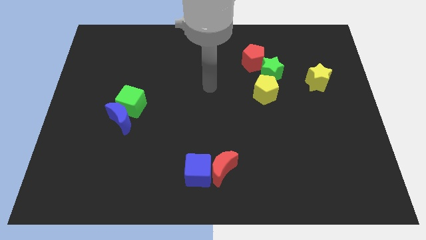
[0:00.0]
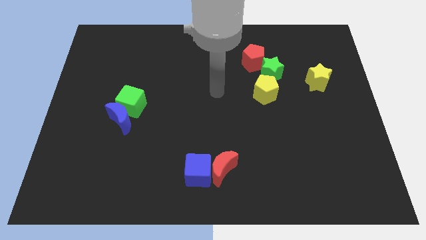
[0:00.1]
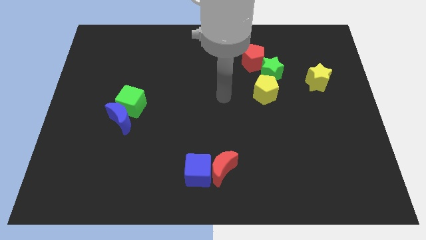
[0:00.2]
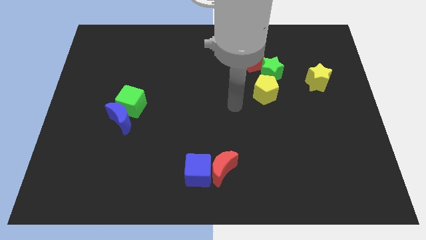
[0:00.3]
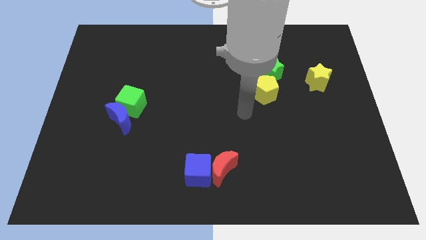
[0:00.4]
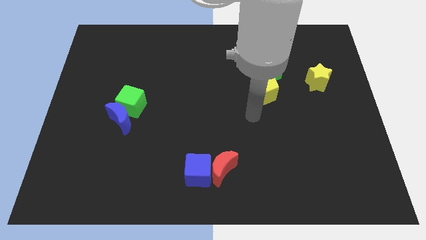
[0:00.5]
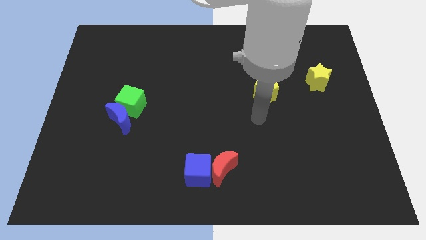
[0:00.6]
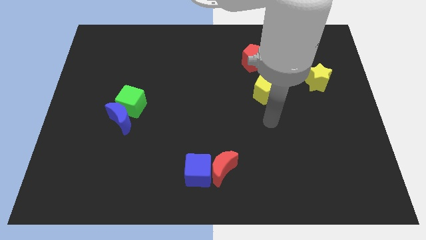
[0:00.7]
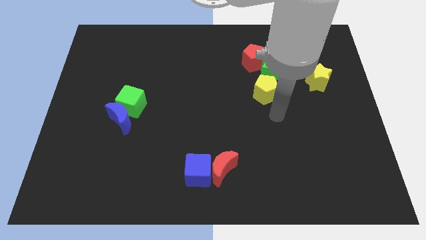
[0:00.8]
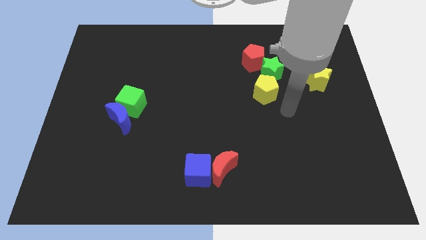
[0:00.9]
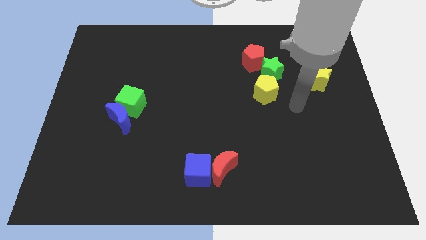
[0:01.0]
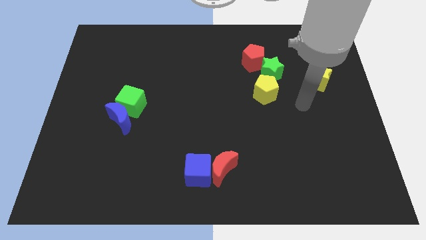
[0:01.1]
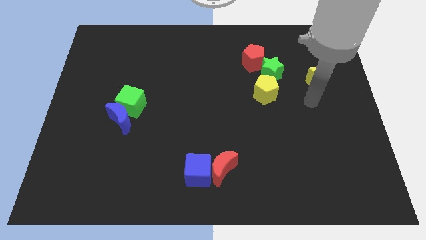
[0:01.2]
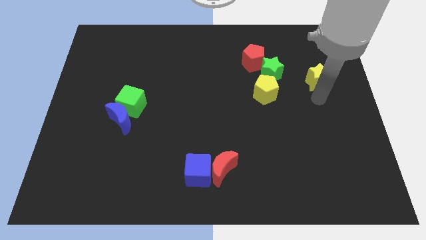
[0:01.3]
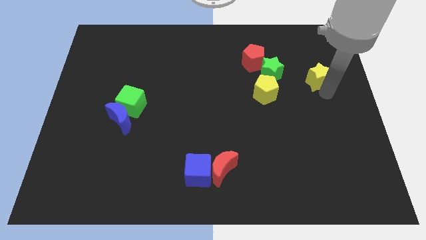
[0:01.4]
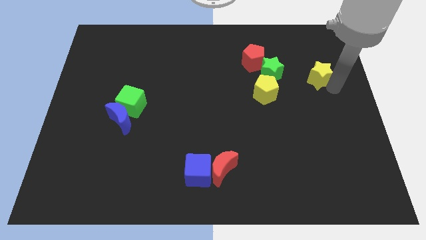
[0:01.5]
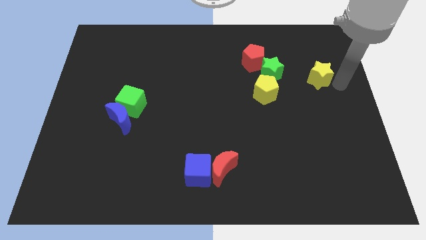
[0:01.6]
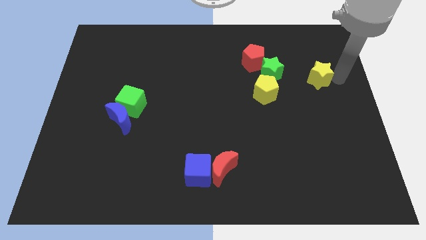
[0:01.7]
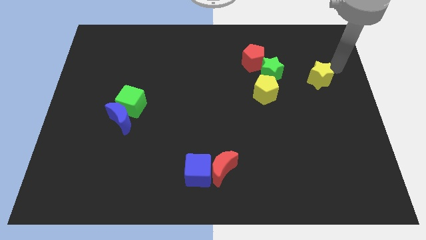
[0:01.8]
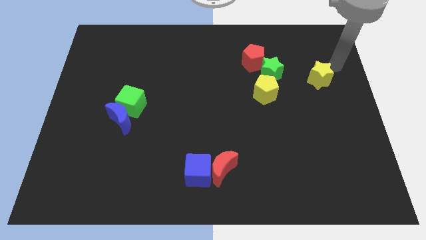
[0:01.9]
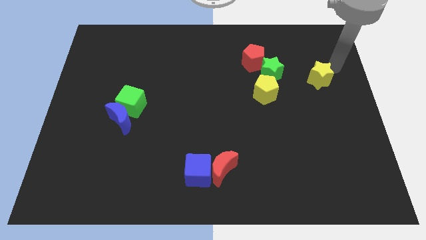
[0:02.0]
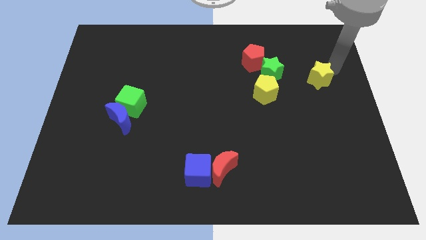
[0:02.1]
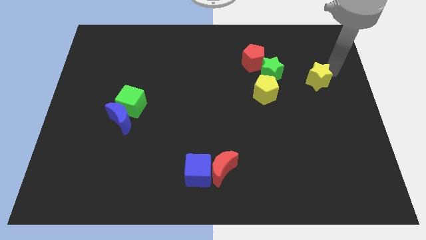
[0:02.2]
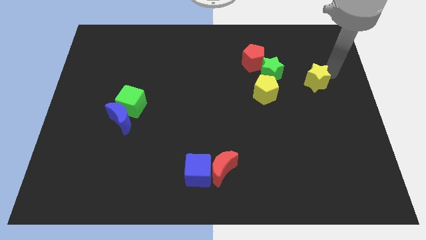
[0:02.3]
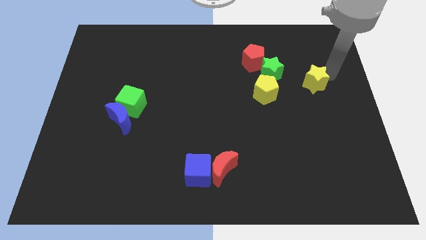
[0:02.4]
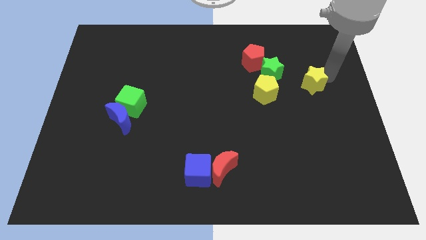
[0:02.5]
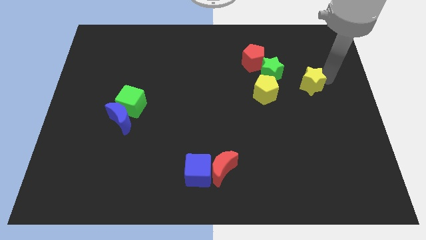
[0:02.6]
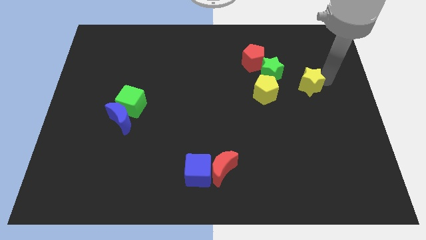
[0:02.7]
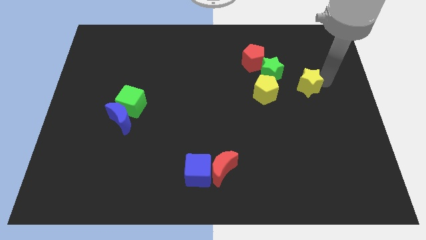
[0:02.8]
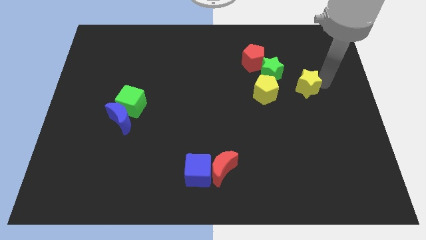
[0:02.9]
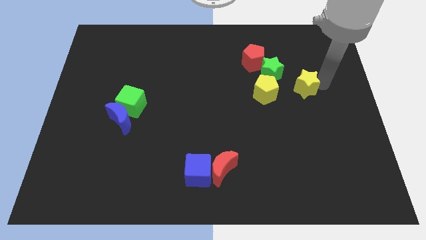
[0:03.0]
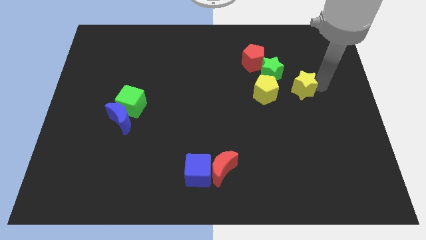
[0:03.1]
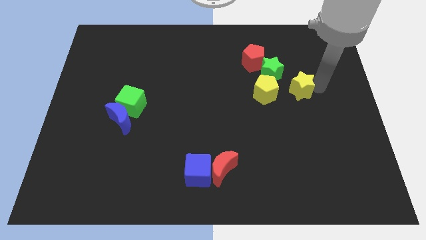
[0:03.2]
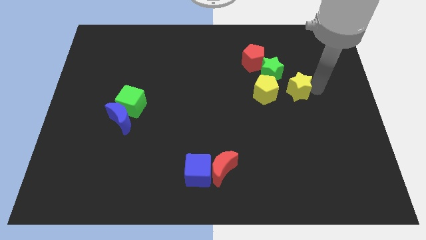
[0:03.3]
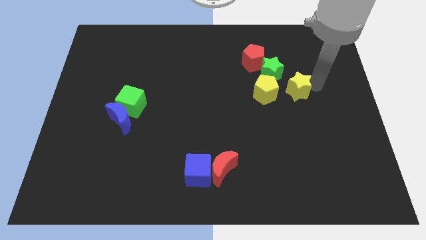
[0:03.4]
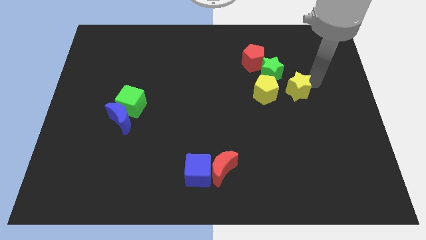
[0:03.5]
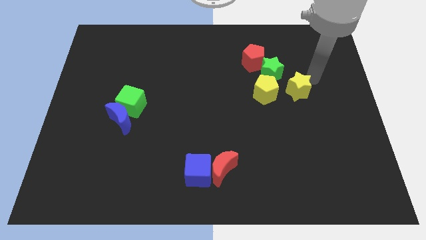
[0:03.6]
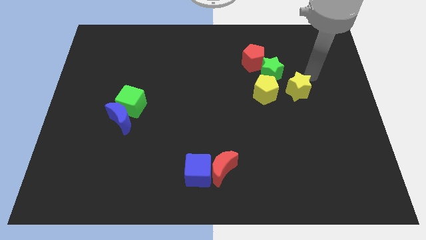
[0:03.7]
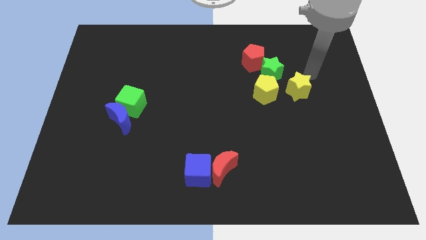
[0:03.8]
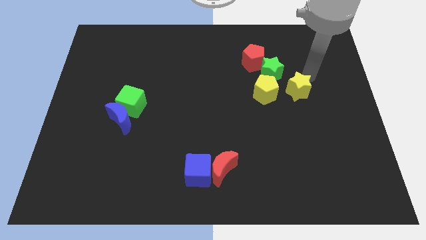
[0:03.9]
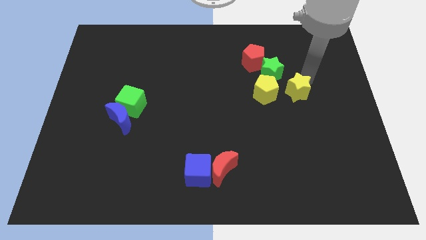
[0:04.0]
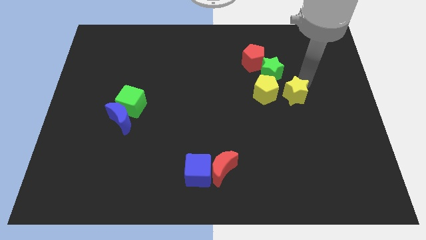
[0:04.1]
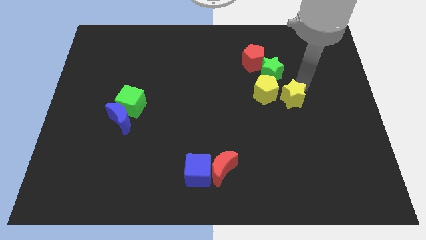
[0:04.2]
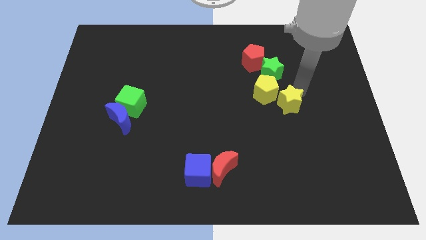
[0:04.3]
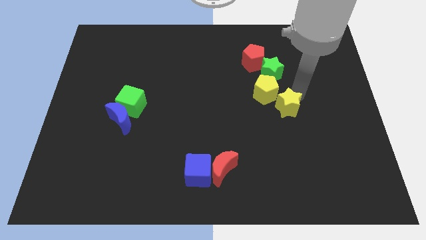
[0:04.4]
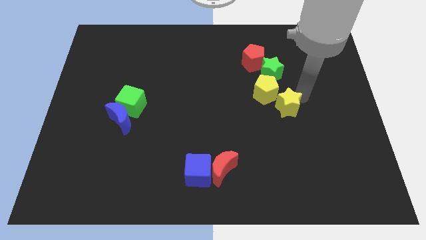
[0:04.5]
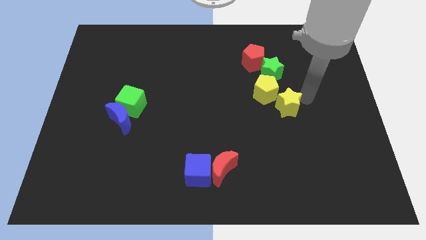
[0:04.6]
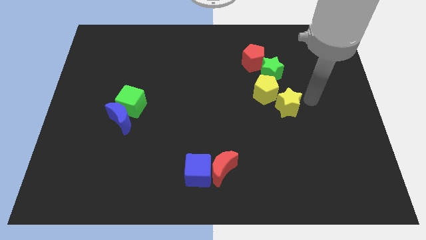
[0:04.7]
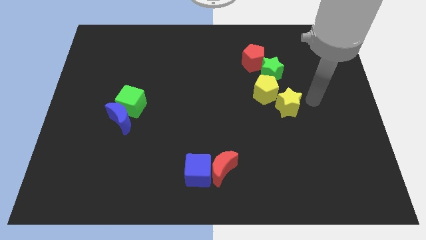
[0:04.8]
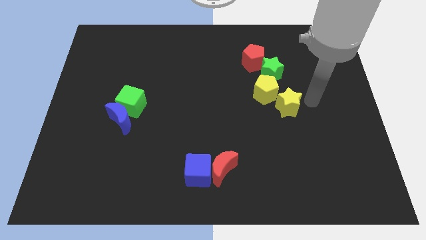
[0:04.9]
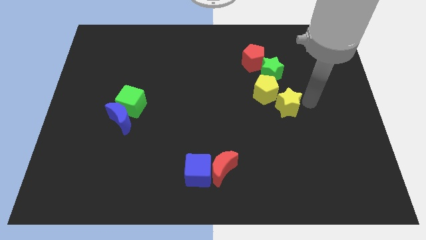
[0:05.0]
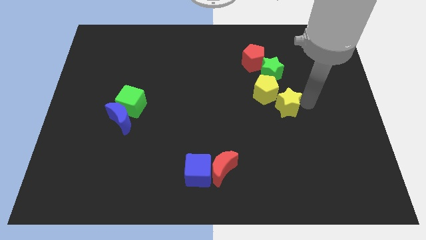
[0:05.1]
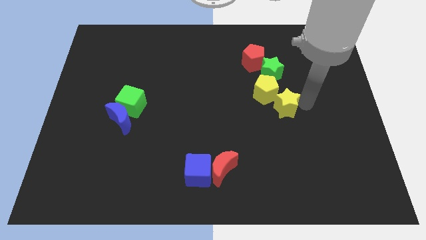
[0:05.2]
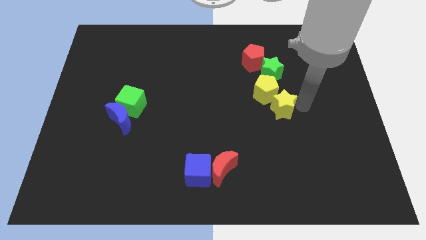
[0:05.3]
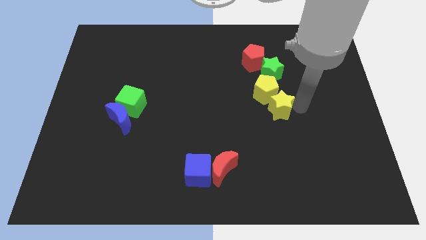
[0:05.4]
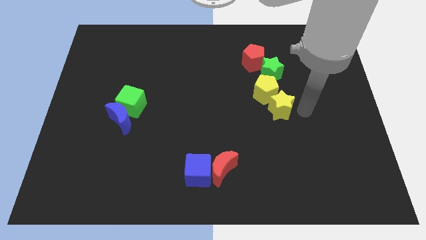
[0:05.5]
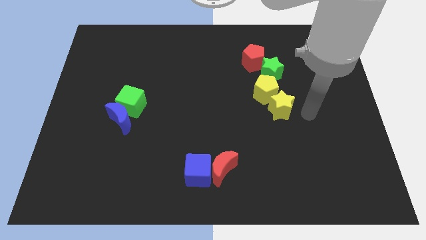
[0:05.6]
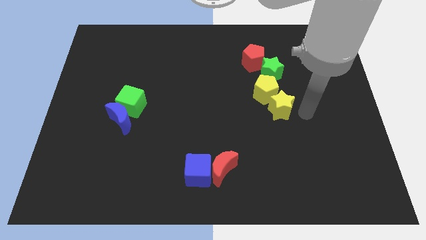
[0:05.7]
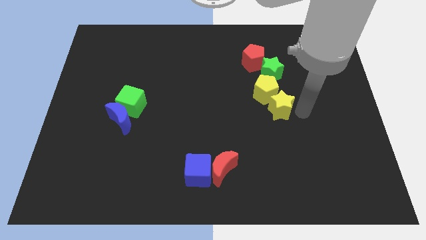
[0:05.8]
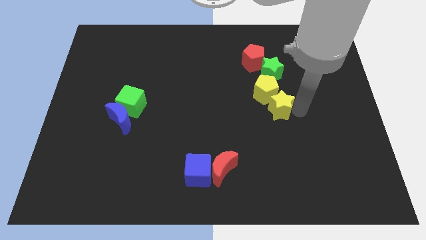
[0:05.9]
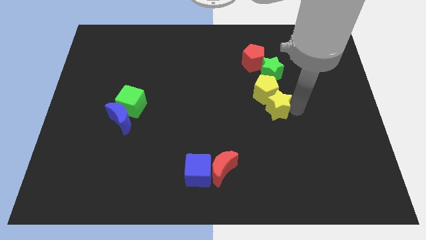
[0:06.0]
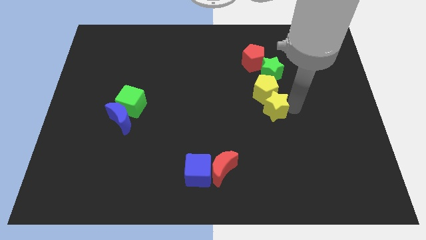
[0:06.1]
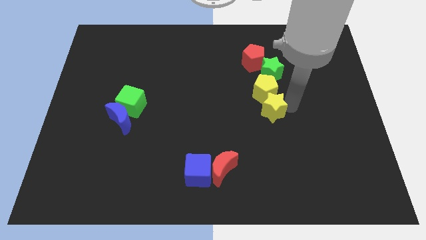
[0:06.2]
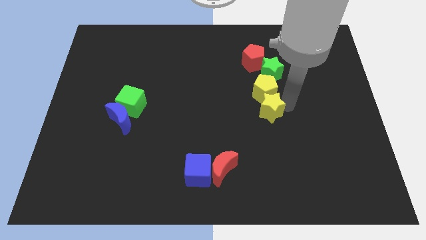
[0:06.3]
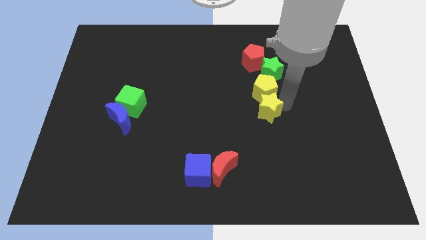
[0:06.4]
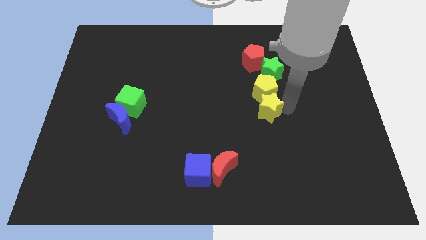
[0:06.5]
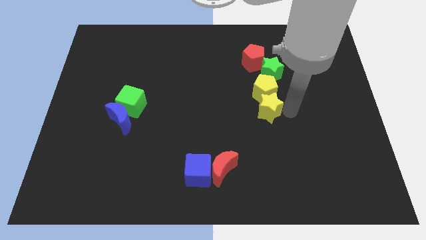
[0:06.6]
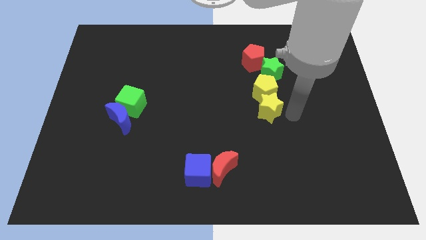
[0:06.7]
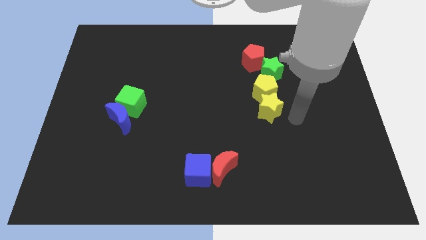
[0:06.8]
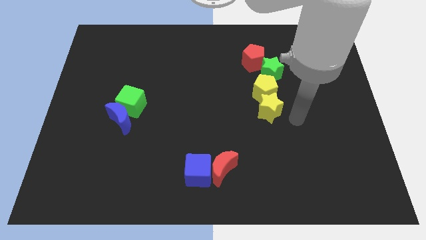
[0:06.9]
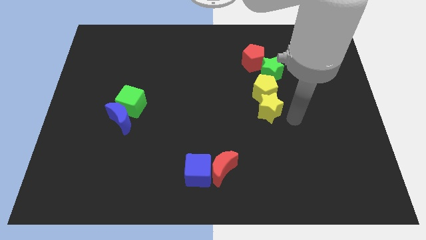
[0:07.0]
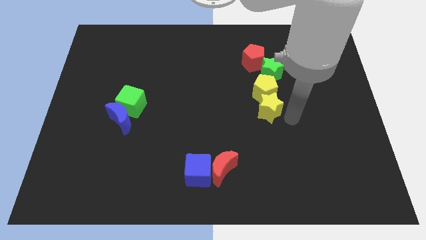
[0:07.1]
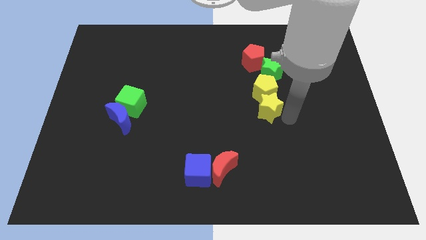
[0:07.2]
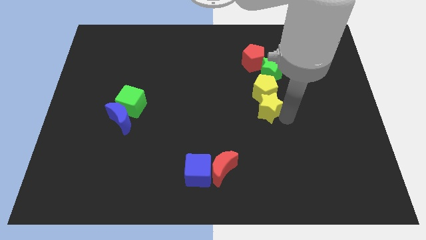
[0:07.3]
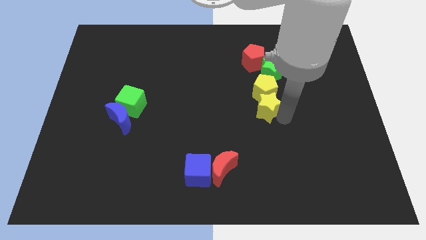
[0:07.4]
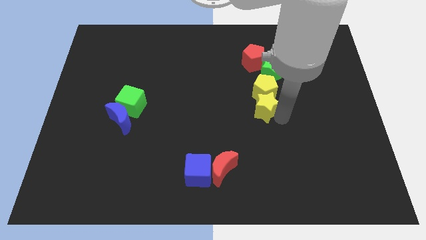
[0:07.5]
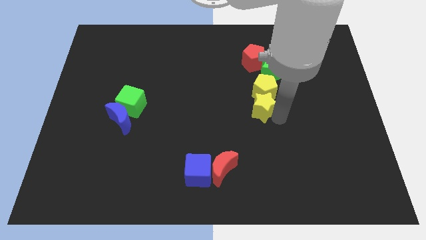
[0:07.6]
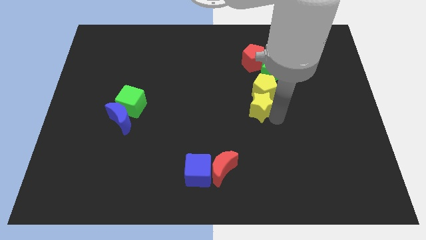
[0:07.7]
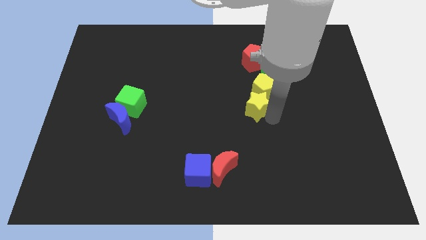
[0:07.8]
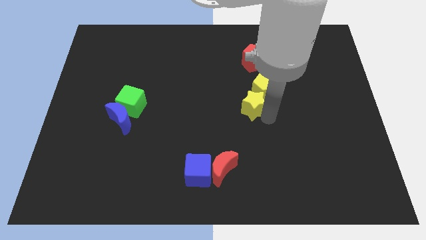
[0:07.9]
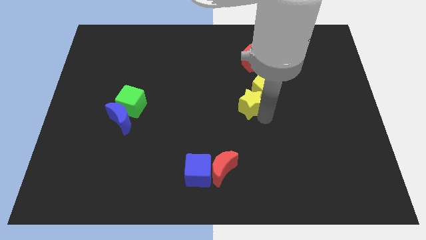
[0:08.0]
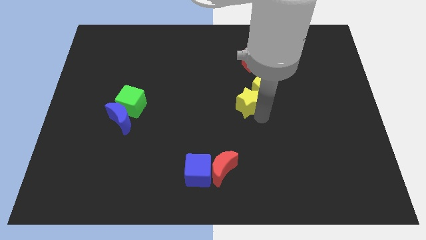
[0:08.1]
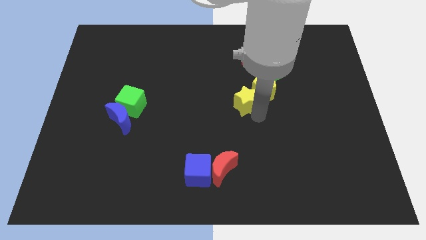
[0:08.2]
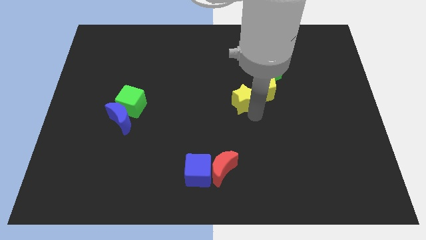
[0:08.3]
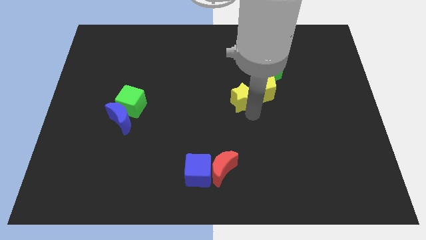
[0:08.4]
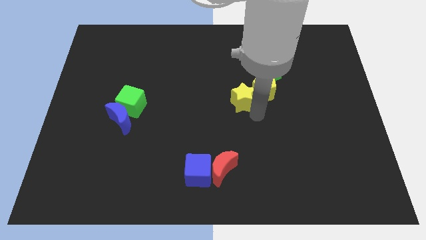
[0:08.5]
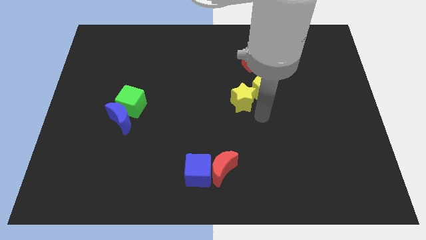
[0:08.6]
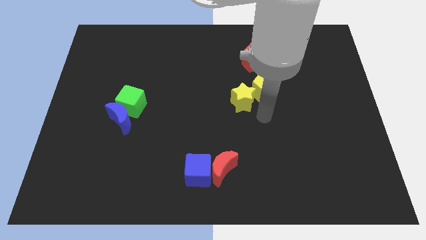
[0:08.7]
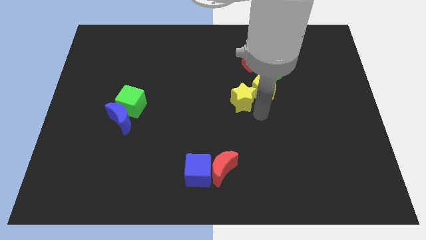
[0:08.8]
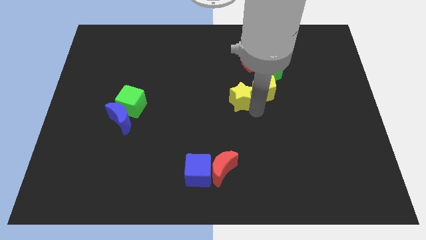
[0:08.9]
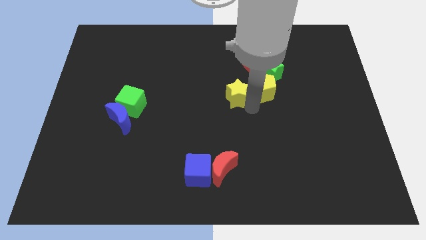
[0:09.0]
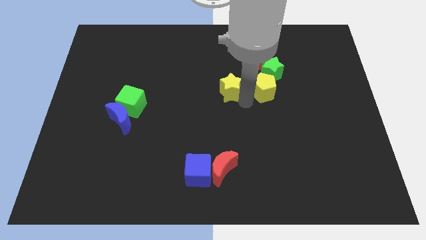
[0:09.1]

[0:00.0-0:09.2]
move the yellow star left
